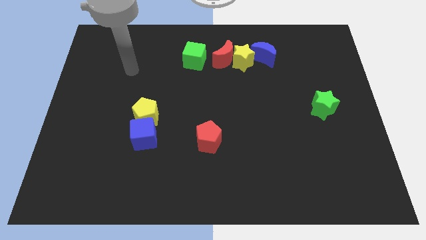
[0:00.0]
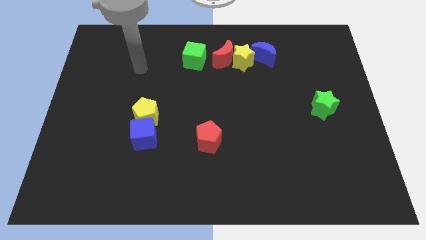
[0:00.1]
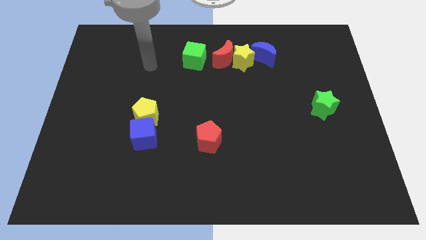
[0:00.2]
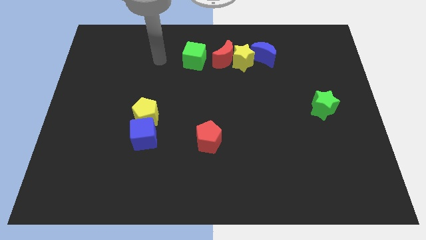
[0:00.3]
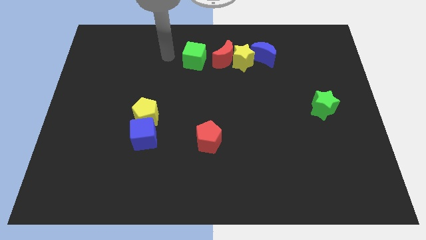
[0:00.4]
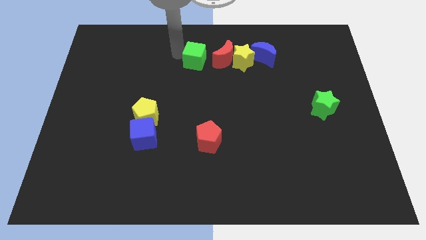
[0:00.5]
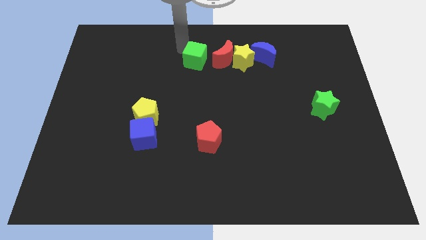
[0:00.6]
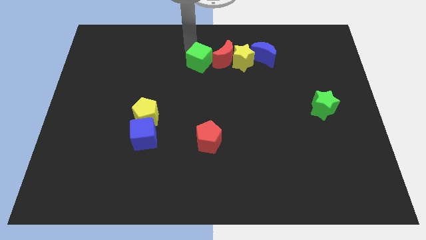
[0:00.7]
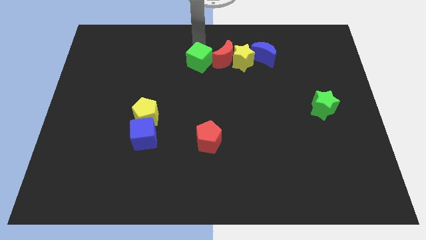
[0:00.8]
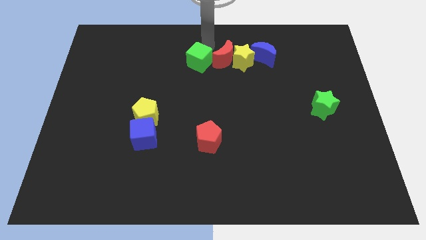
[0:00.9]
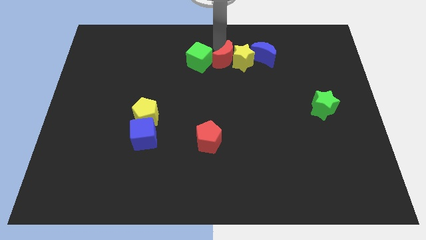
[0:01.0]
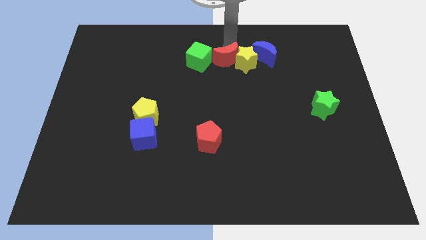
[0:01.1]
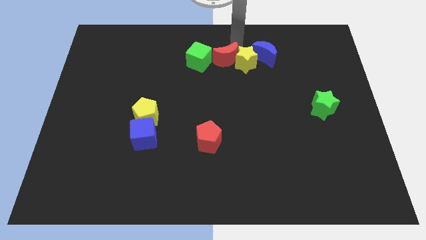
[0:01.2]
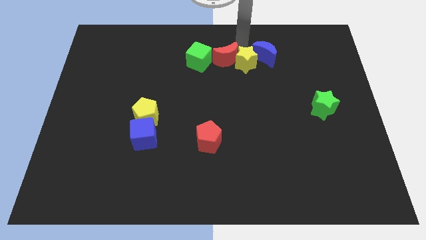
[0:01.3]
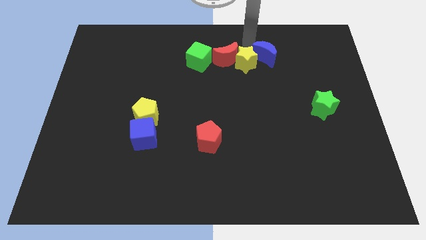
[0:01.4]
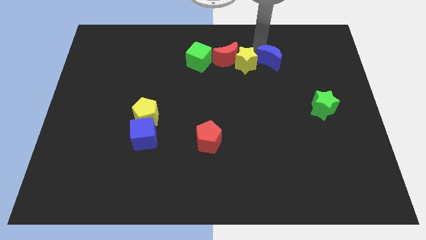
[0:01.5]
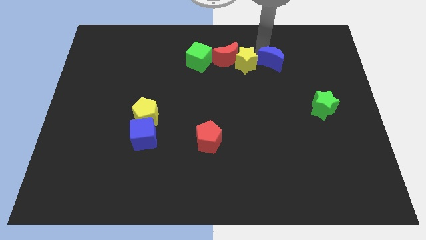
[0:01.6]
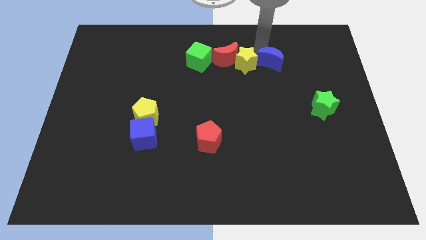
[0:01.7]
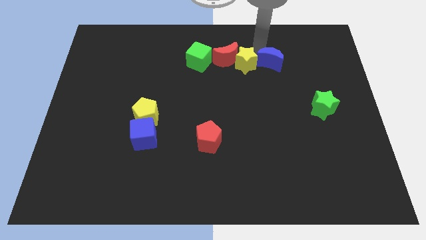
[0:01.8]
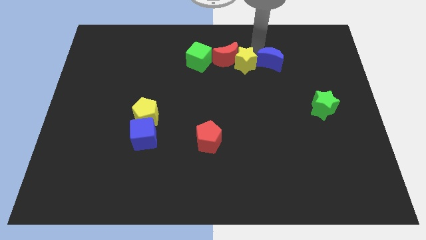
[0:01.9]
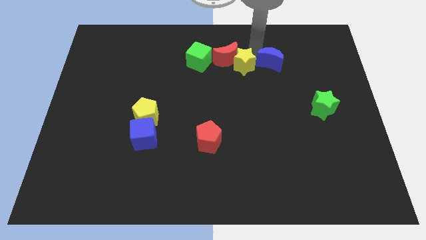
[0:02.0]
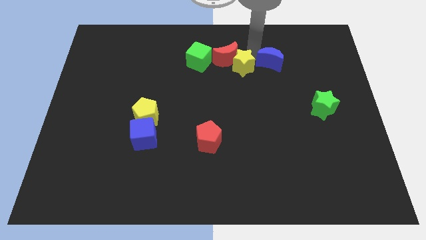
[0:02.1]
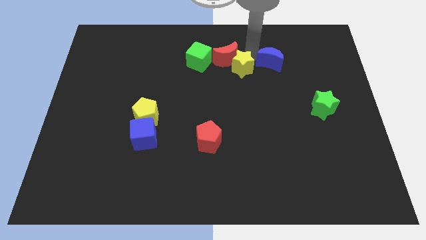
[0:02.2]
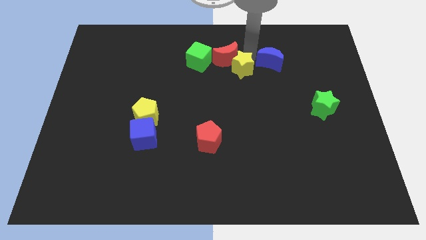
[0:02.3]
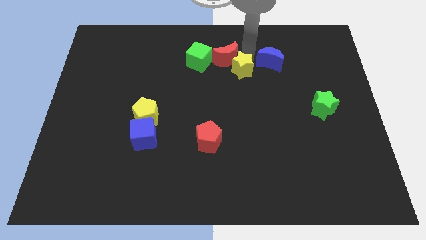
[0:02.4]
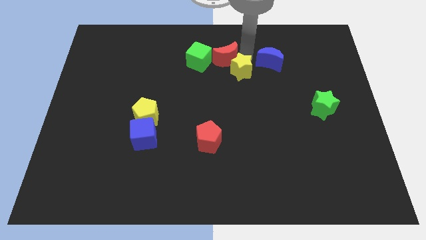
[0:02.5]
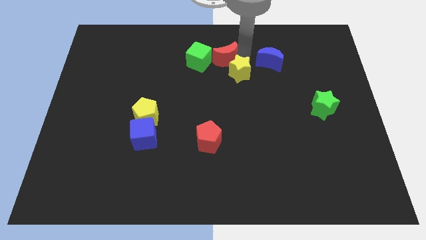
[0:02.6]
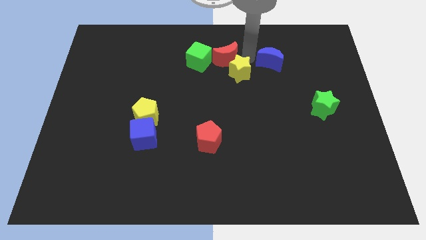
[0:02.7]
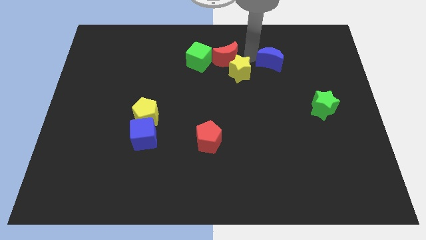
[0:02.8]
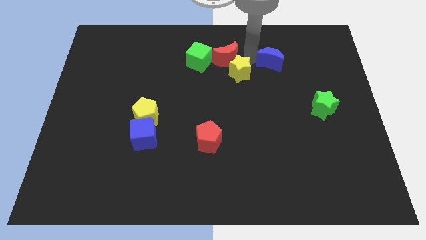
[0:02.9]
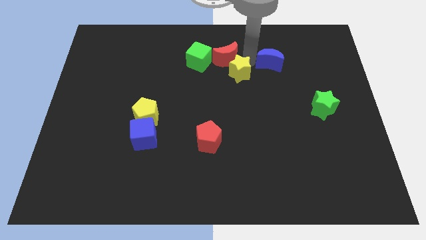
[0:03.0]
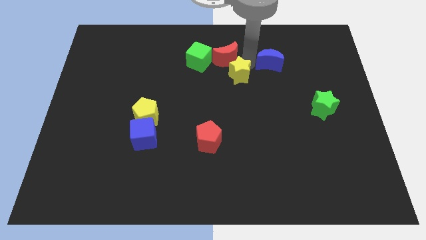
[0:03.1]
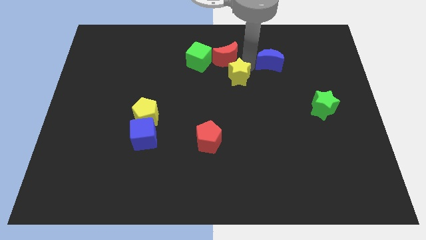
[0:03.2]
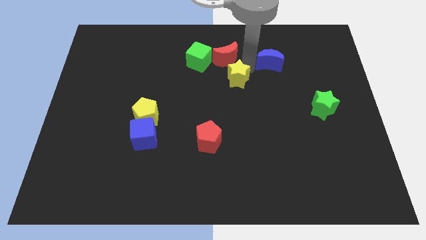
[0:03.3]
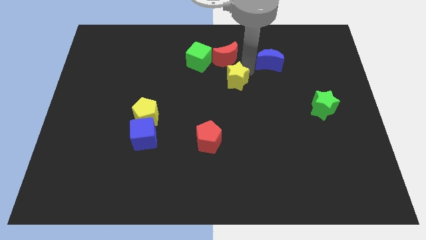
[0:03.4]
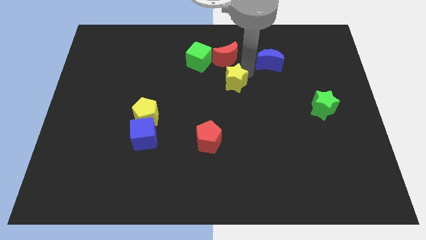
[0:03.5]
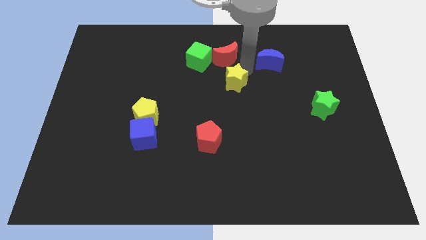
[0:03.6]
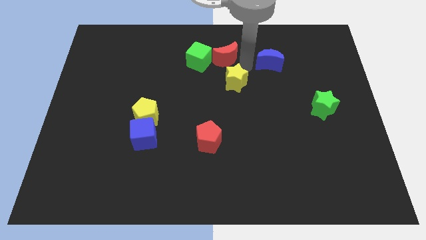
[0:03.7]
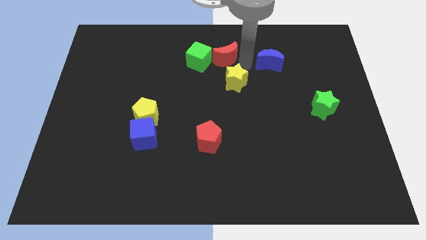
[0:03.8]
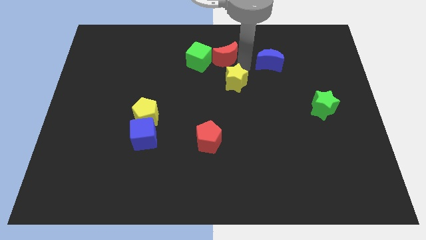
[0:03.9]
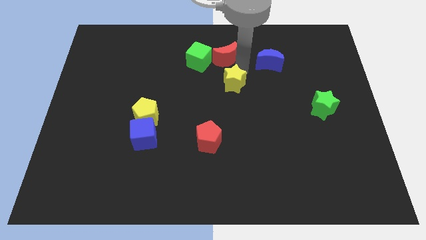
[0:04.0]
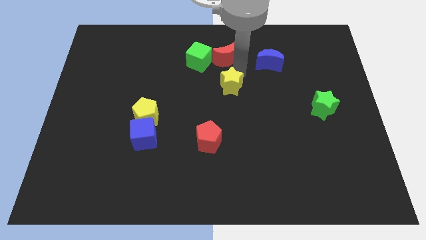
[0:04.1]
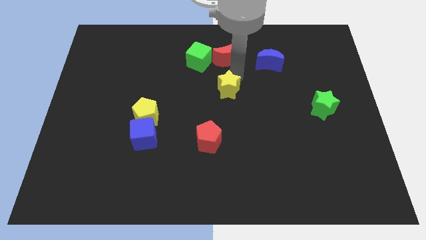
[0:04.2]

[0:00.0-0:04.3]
separate the yellow star from the red moon and blue moon

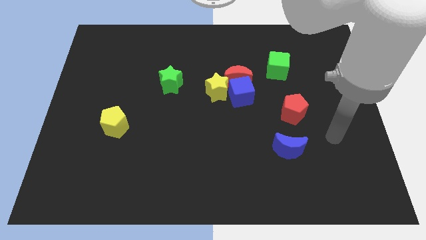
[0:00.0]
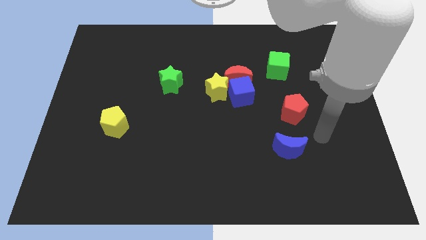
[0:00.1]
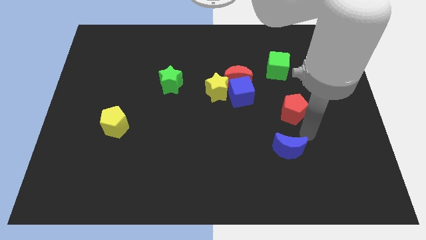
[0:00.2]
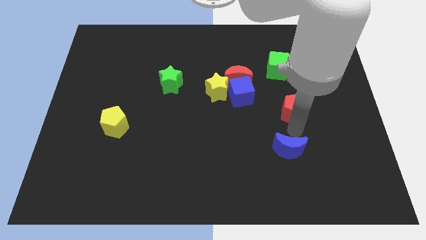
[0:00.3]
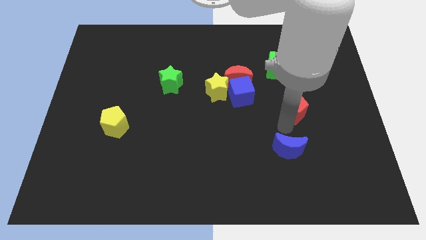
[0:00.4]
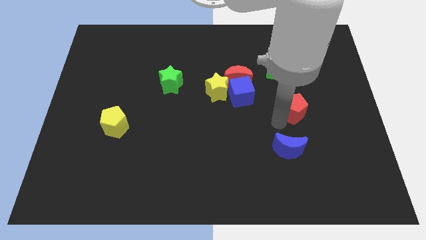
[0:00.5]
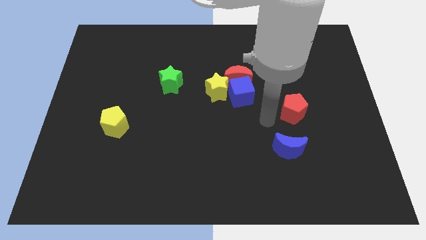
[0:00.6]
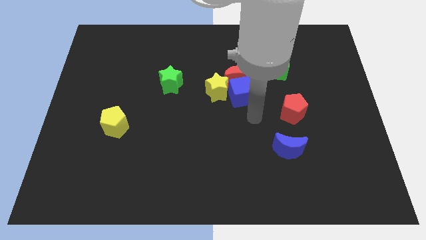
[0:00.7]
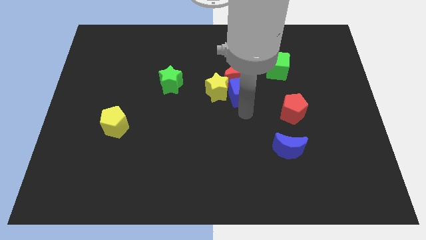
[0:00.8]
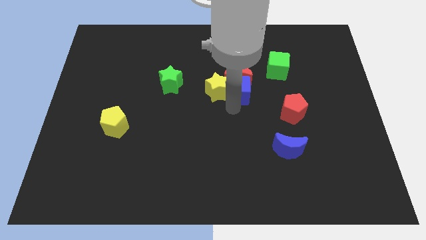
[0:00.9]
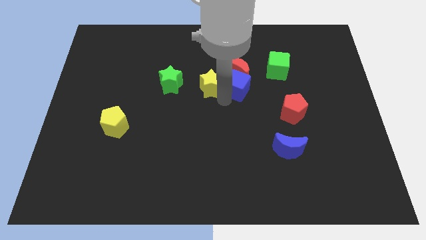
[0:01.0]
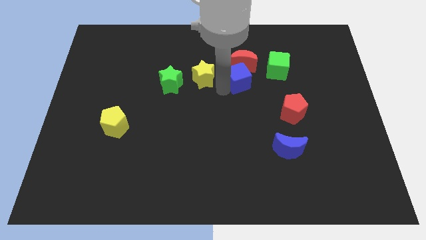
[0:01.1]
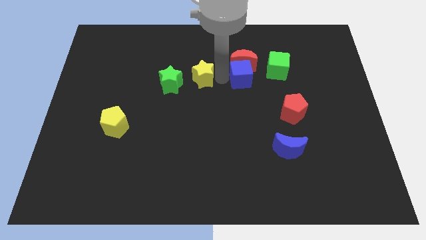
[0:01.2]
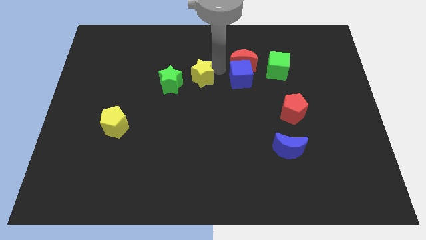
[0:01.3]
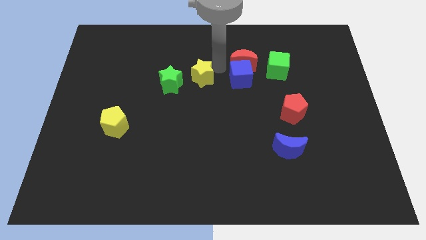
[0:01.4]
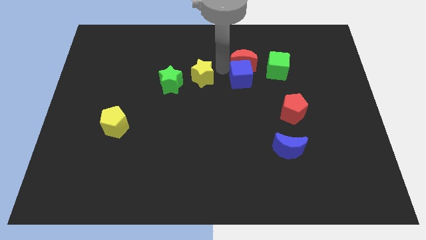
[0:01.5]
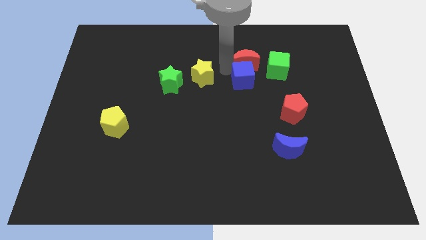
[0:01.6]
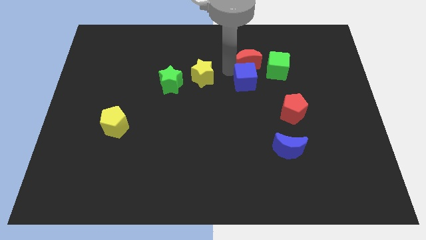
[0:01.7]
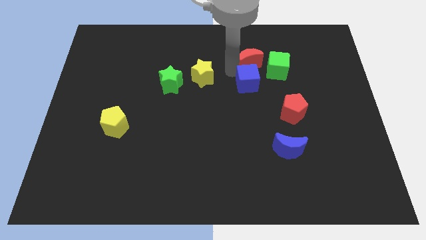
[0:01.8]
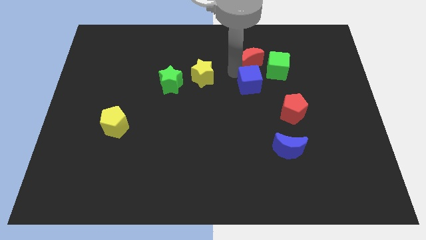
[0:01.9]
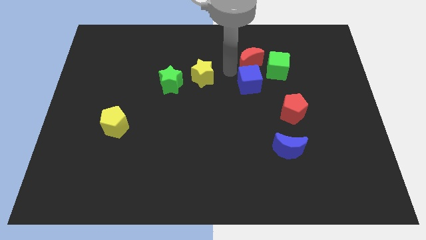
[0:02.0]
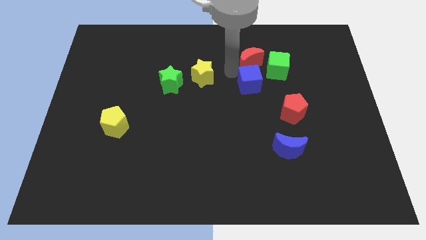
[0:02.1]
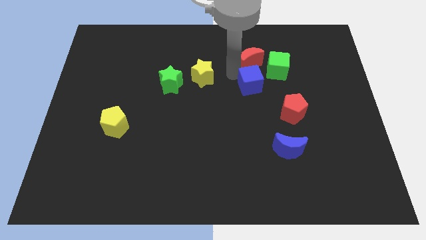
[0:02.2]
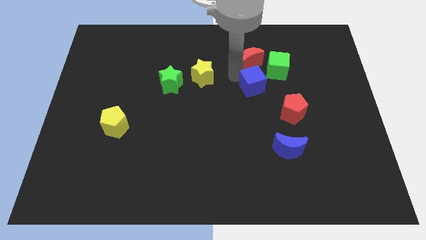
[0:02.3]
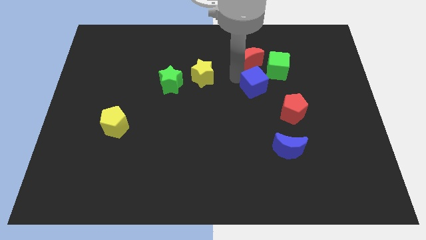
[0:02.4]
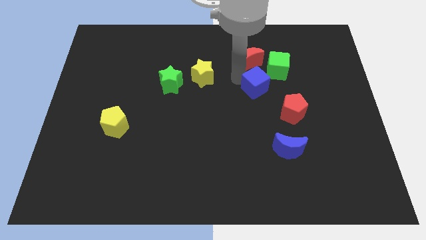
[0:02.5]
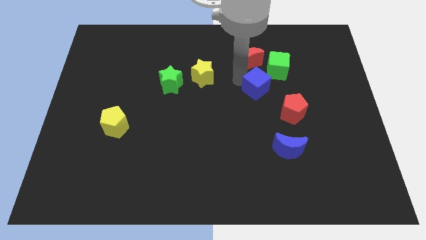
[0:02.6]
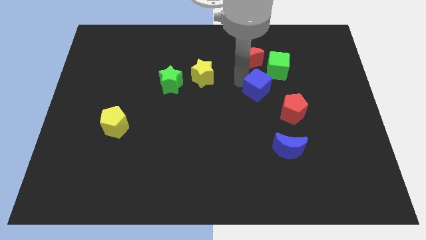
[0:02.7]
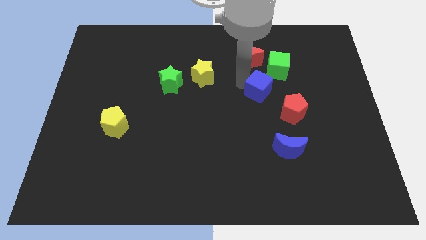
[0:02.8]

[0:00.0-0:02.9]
separate the blue cube from the red moon and yellow star

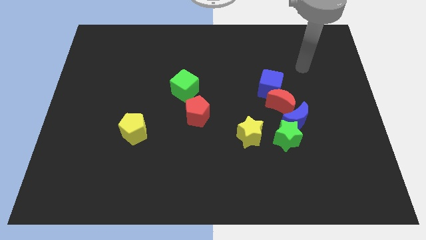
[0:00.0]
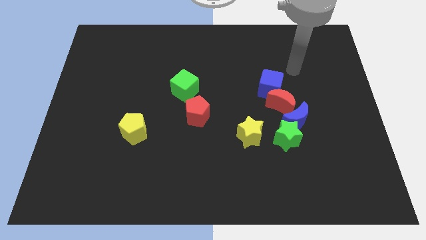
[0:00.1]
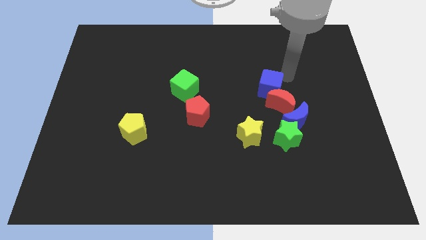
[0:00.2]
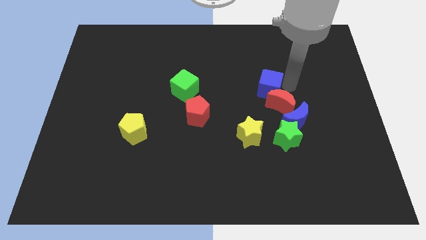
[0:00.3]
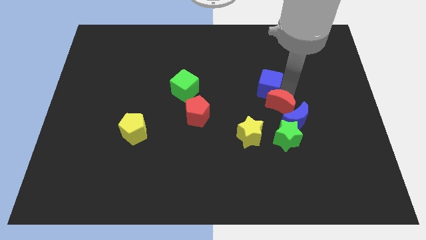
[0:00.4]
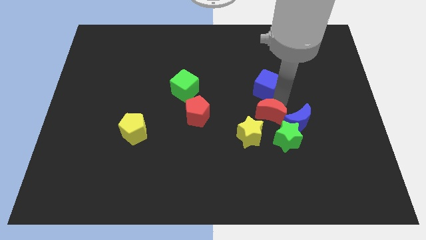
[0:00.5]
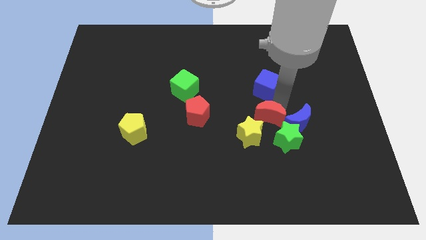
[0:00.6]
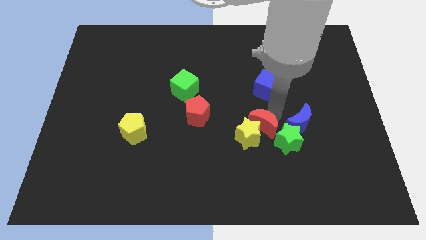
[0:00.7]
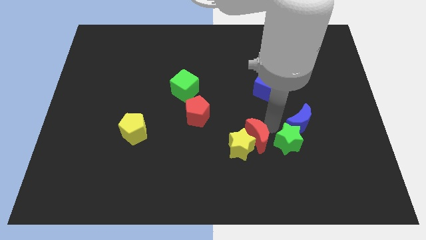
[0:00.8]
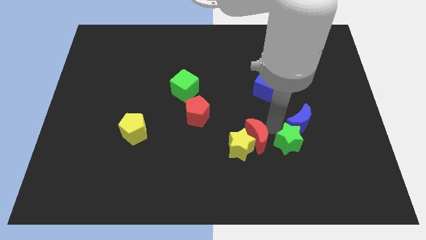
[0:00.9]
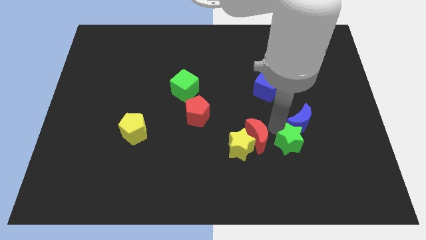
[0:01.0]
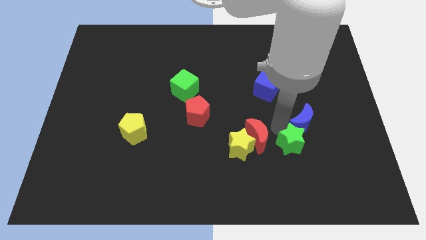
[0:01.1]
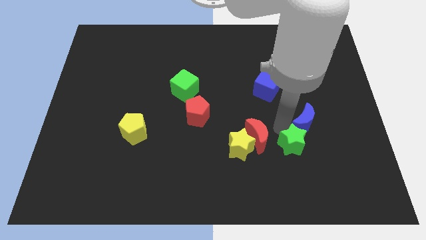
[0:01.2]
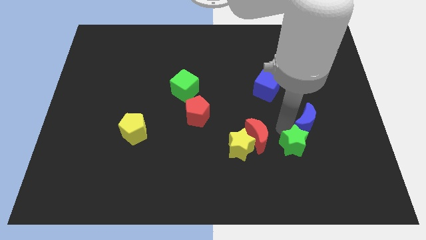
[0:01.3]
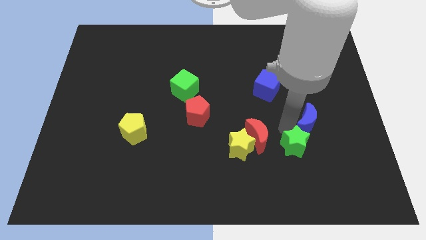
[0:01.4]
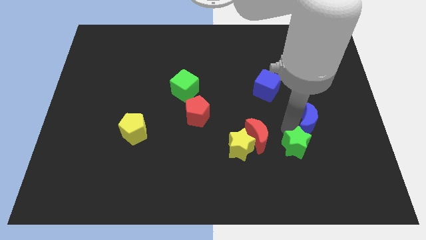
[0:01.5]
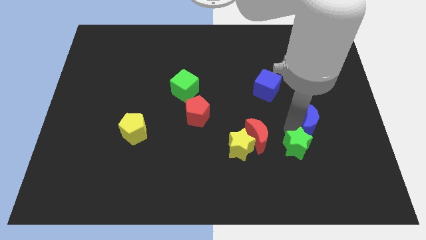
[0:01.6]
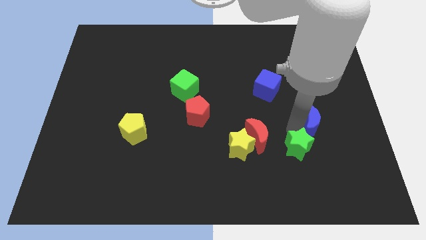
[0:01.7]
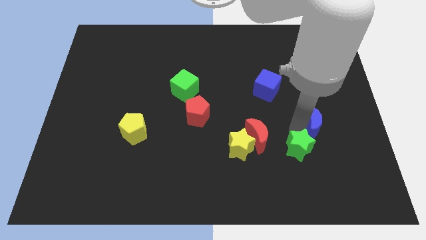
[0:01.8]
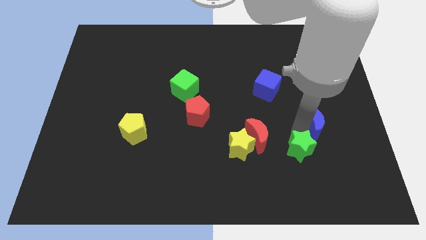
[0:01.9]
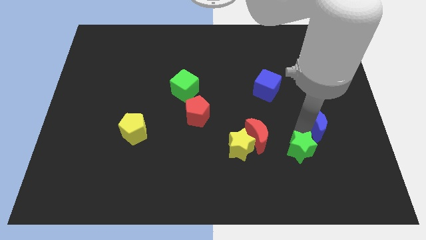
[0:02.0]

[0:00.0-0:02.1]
pull the blue moon apart from the green star and red moon

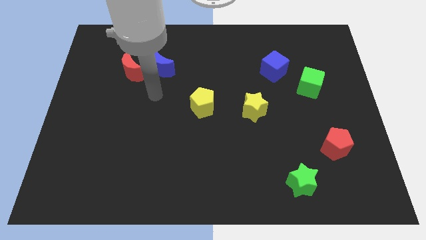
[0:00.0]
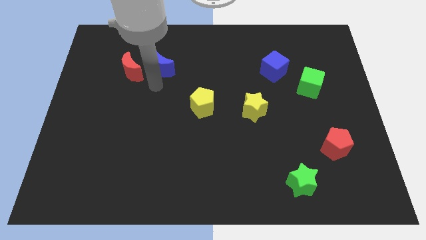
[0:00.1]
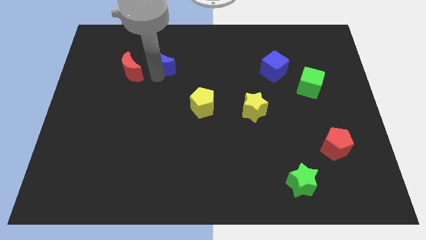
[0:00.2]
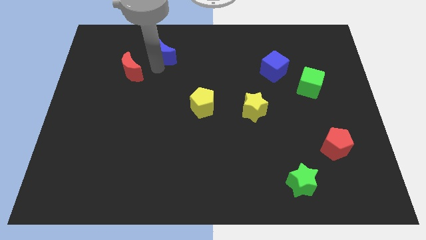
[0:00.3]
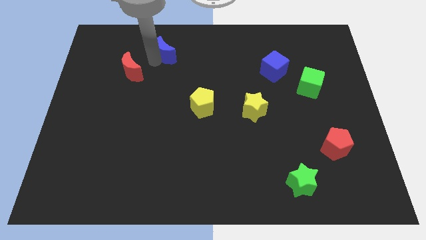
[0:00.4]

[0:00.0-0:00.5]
move the red moon away from the blue moon
